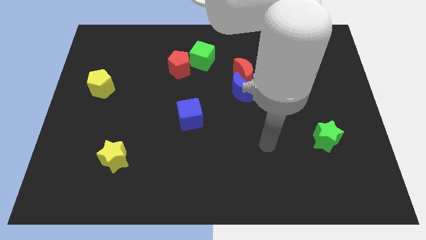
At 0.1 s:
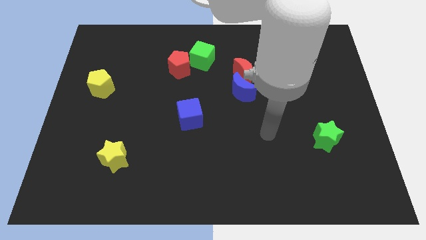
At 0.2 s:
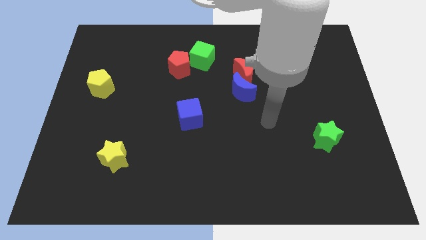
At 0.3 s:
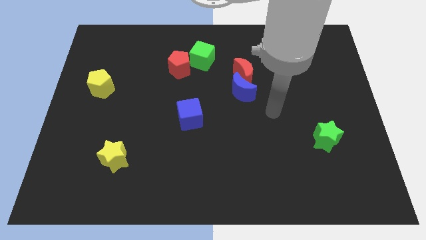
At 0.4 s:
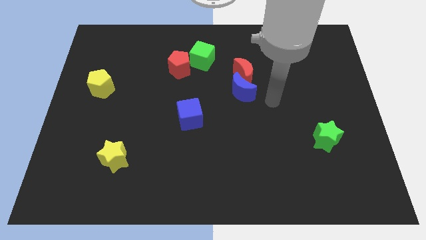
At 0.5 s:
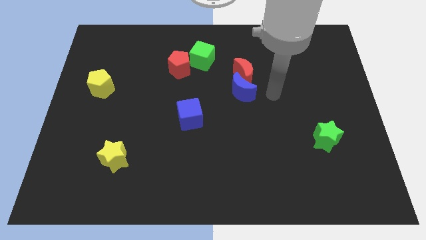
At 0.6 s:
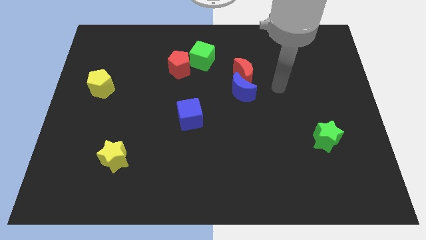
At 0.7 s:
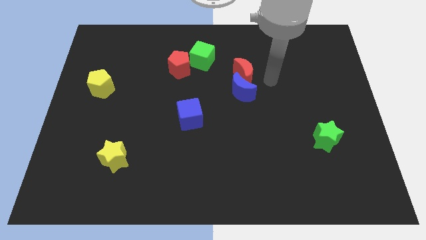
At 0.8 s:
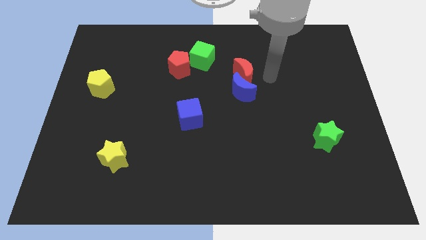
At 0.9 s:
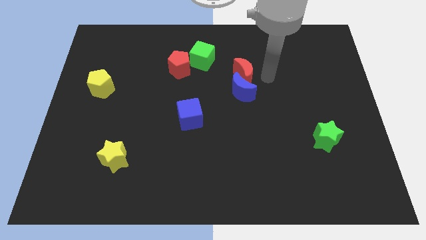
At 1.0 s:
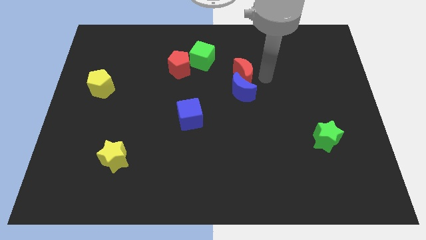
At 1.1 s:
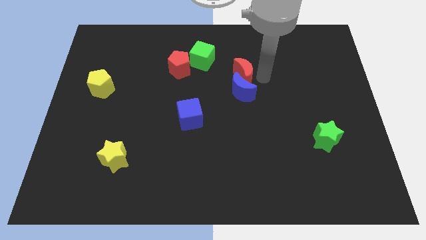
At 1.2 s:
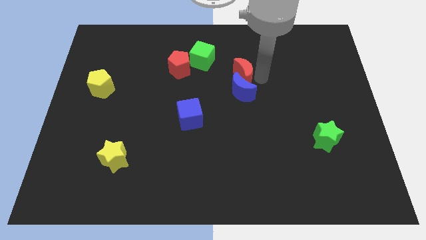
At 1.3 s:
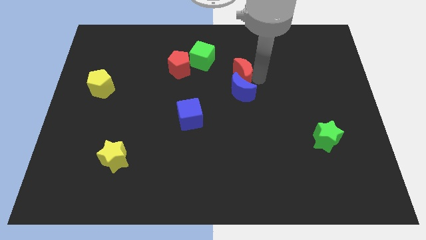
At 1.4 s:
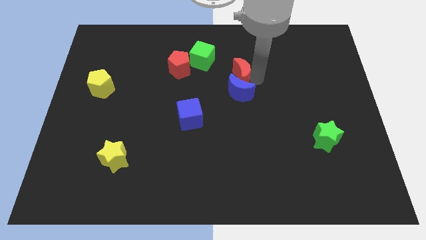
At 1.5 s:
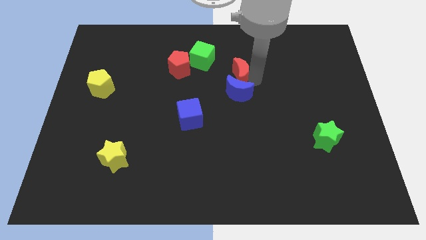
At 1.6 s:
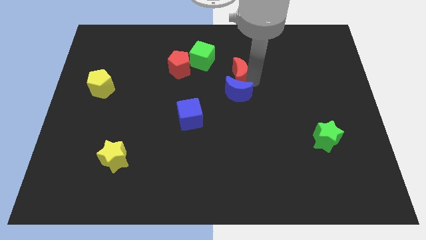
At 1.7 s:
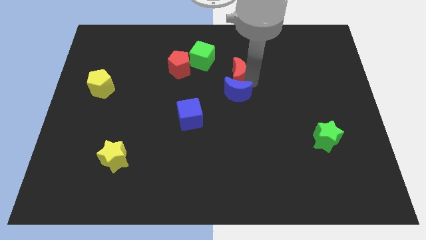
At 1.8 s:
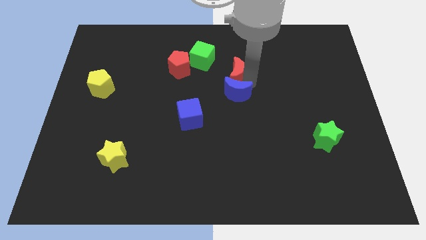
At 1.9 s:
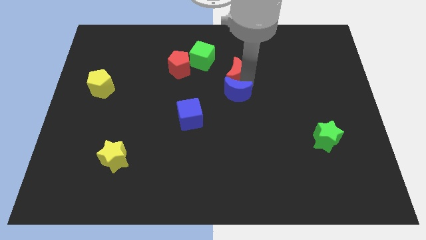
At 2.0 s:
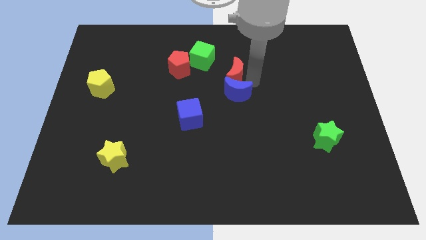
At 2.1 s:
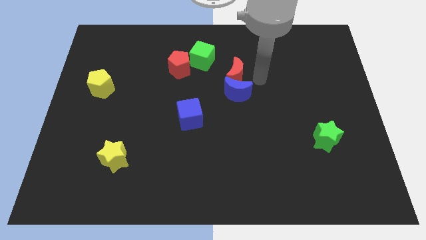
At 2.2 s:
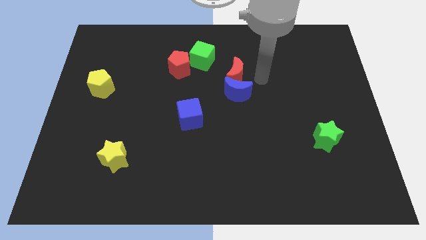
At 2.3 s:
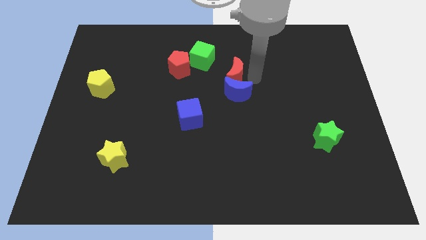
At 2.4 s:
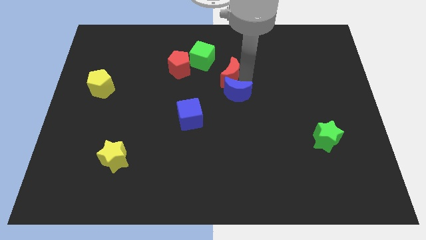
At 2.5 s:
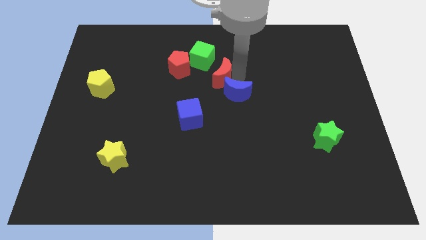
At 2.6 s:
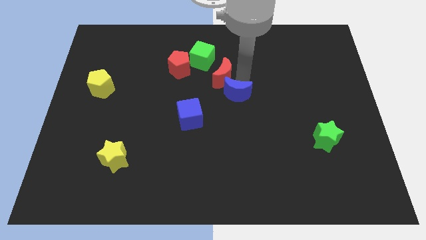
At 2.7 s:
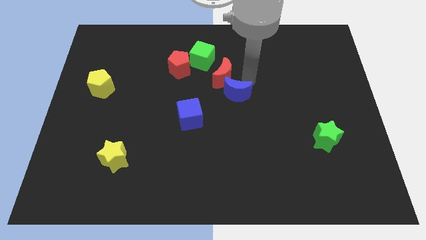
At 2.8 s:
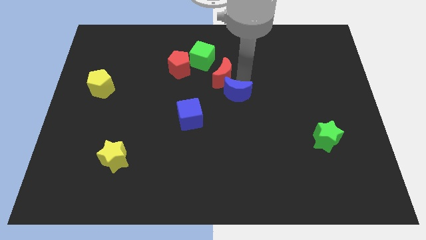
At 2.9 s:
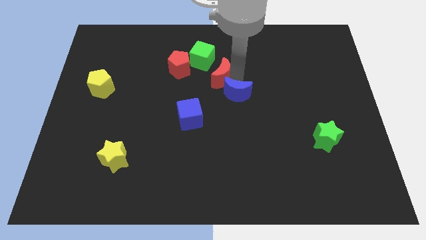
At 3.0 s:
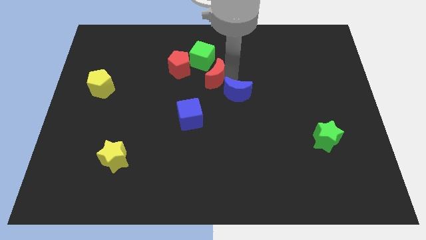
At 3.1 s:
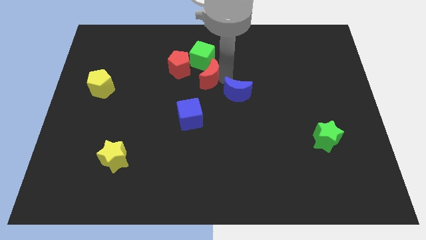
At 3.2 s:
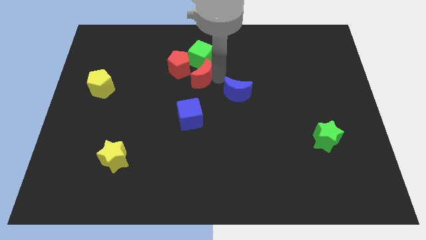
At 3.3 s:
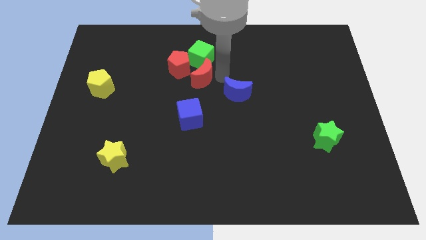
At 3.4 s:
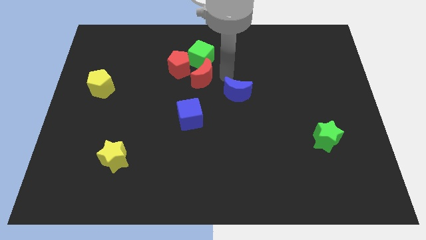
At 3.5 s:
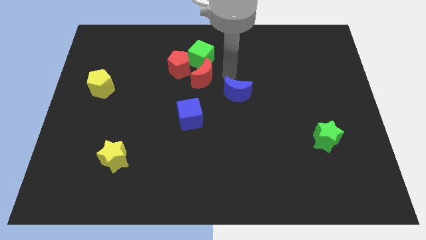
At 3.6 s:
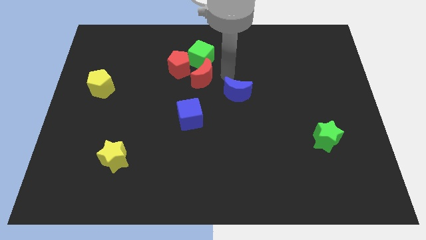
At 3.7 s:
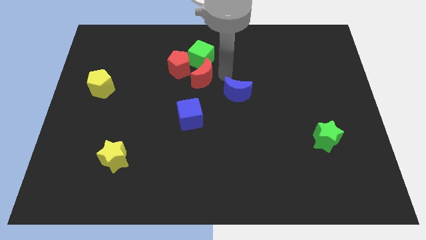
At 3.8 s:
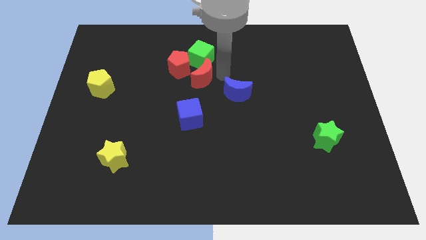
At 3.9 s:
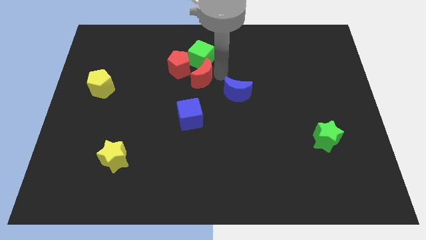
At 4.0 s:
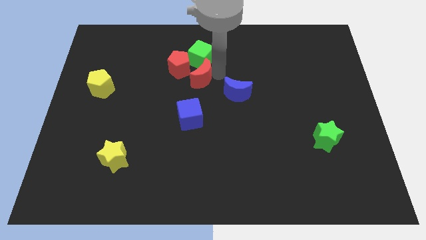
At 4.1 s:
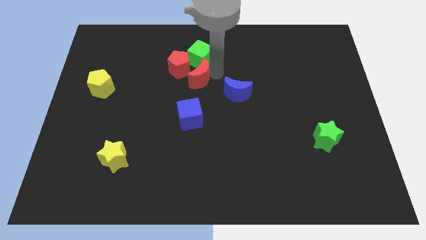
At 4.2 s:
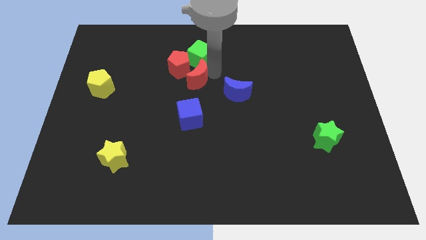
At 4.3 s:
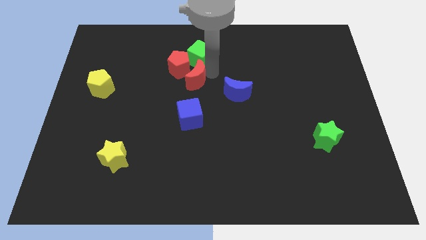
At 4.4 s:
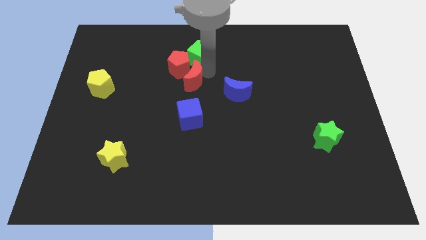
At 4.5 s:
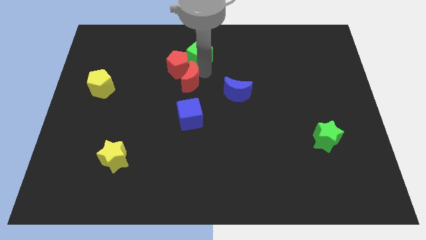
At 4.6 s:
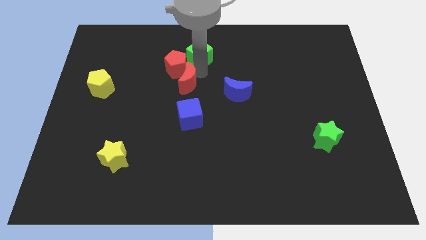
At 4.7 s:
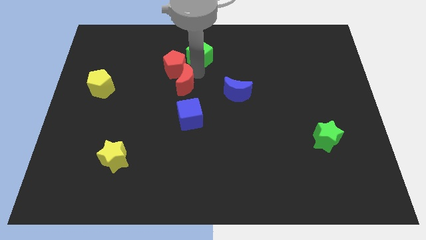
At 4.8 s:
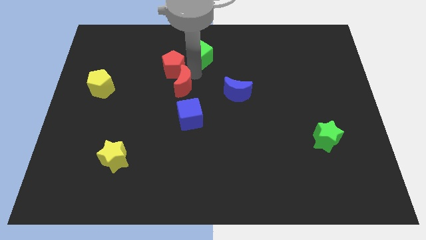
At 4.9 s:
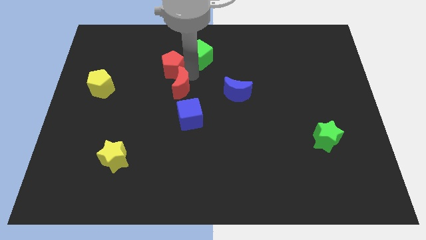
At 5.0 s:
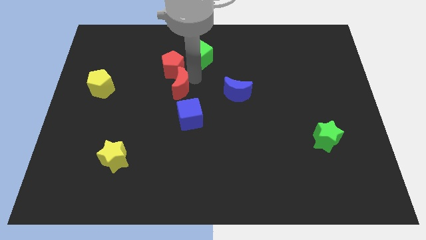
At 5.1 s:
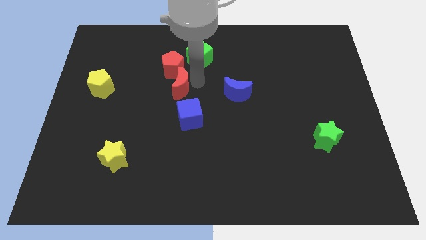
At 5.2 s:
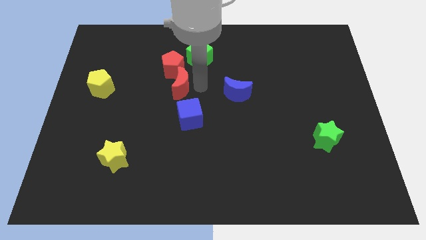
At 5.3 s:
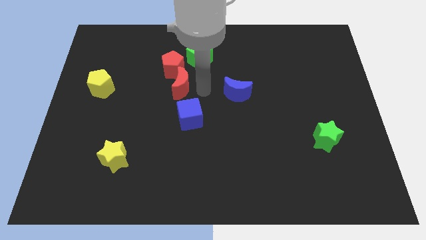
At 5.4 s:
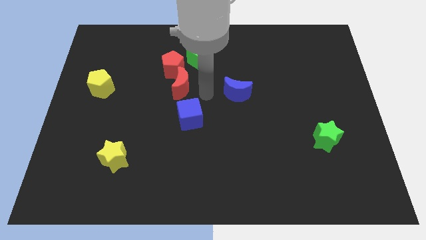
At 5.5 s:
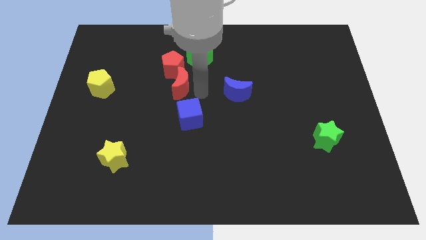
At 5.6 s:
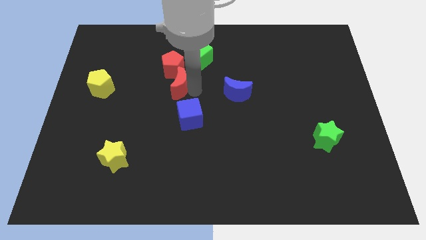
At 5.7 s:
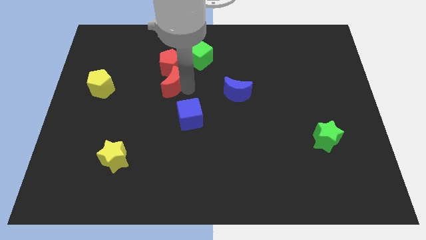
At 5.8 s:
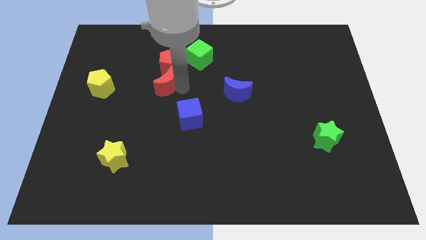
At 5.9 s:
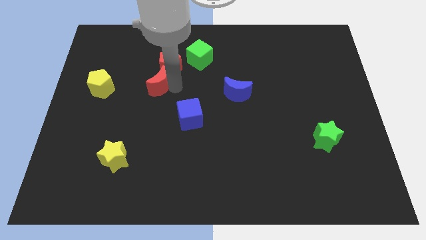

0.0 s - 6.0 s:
slide the red moon left

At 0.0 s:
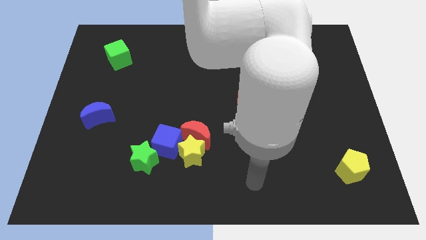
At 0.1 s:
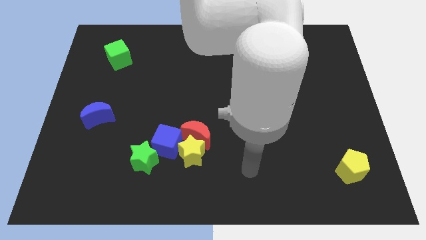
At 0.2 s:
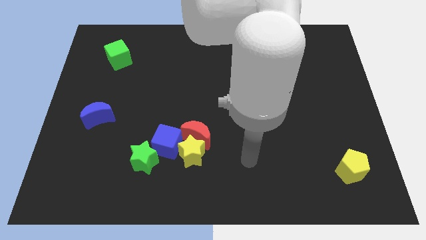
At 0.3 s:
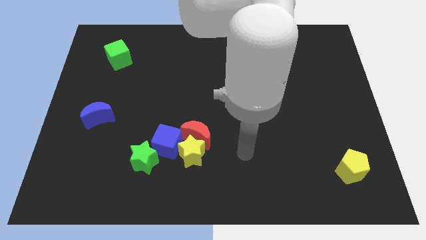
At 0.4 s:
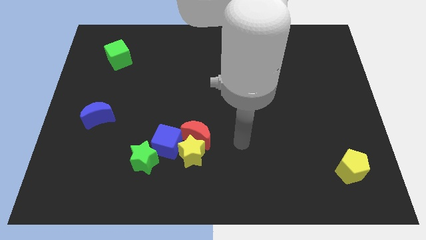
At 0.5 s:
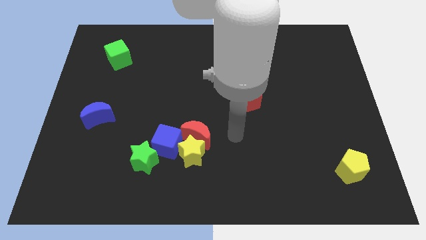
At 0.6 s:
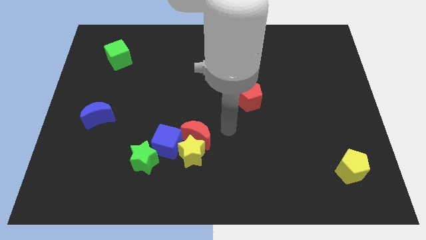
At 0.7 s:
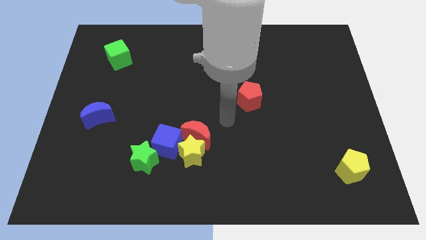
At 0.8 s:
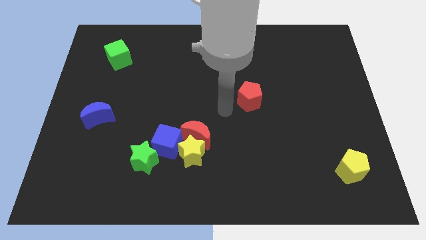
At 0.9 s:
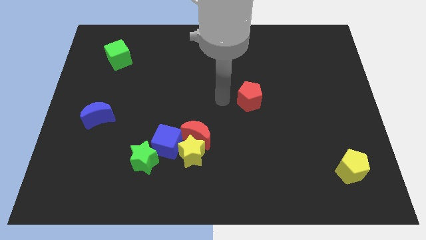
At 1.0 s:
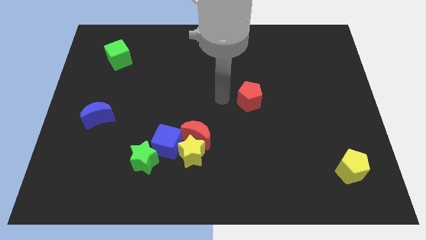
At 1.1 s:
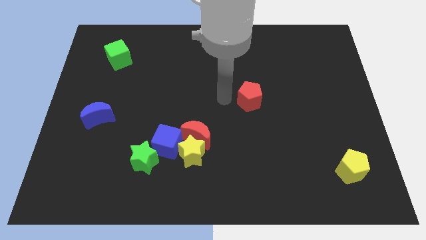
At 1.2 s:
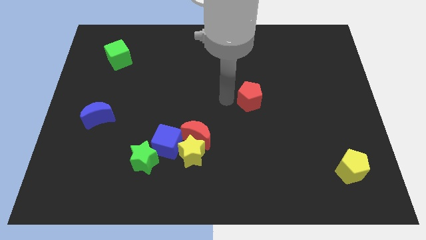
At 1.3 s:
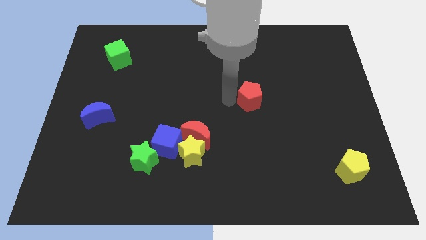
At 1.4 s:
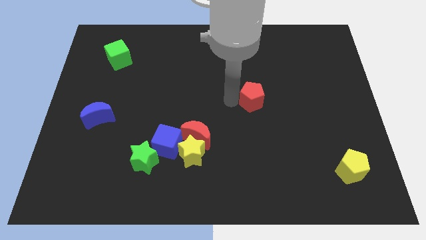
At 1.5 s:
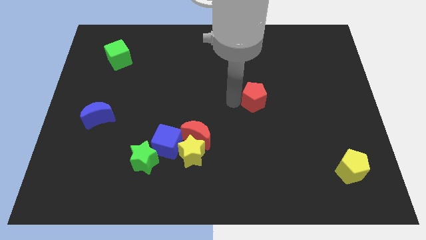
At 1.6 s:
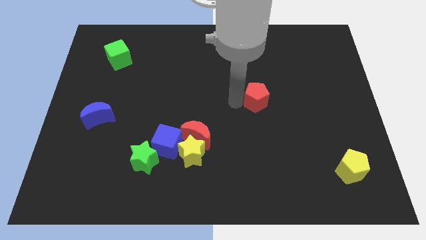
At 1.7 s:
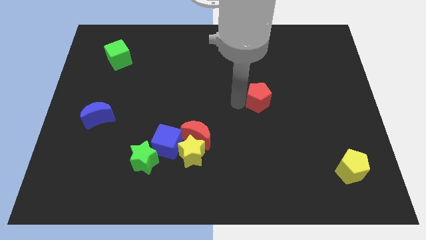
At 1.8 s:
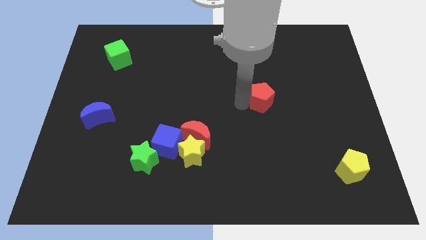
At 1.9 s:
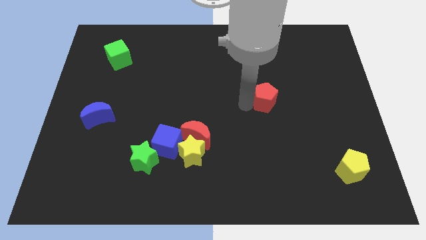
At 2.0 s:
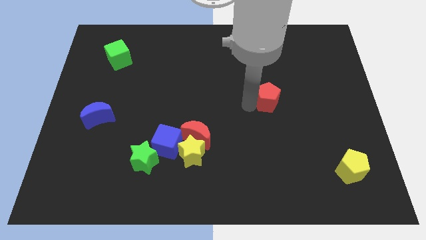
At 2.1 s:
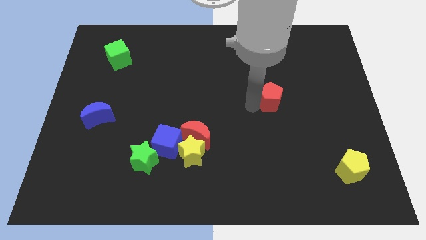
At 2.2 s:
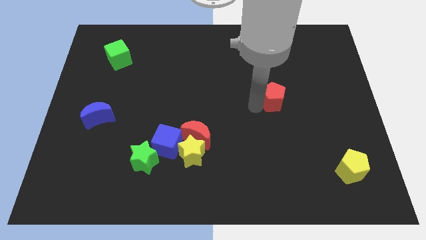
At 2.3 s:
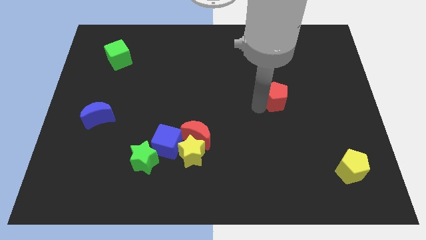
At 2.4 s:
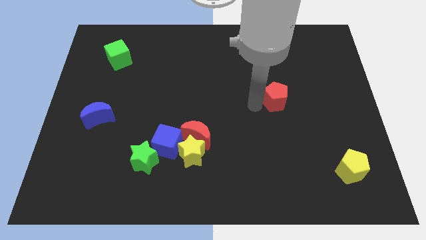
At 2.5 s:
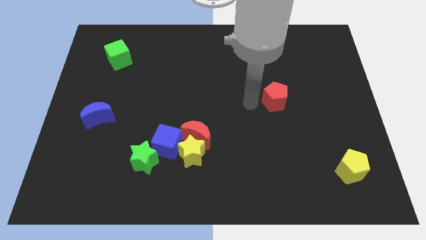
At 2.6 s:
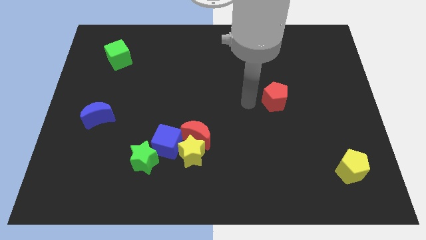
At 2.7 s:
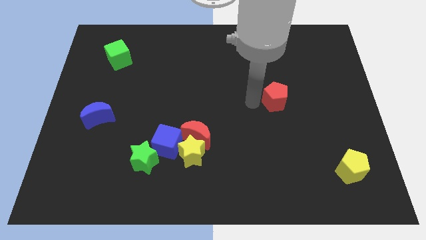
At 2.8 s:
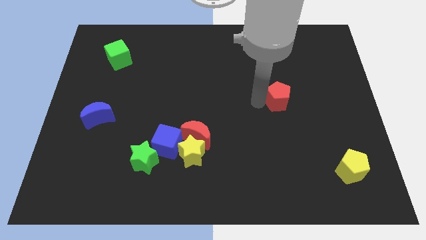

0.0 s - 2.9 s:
move the red pentagon a little bit right

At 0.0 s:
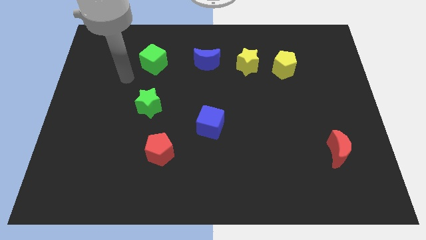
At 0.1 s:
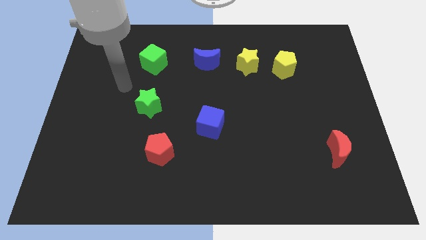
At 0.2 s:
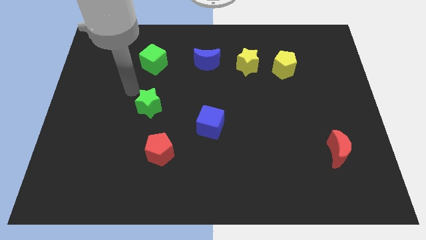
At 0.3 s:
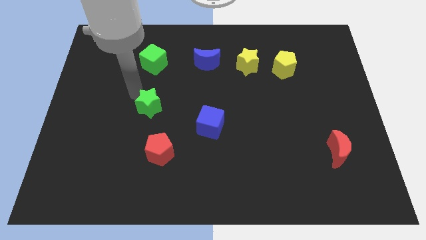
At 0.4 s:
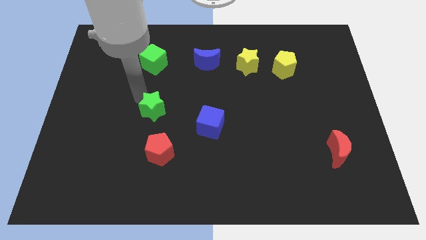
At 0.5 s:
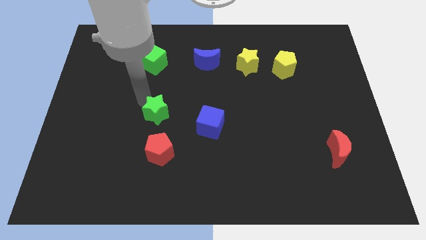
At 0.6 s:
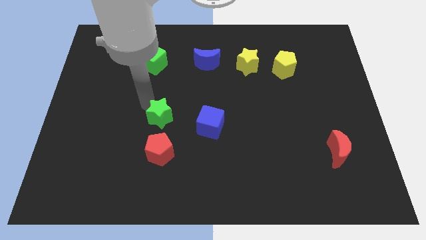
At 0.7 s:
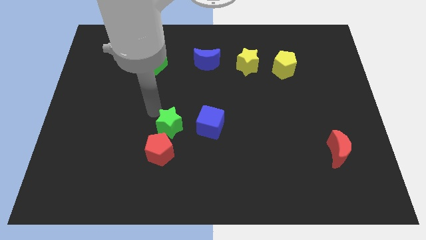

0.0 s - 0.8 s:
slightly push the green star down and then right
